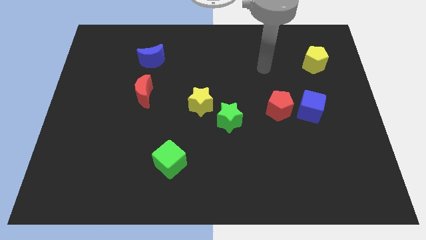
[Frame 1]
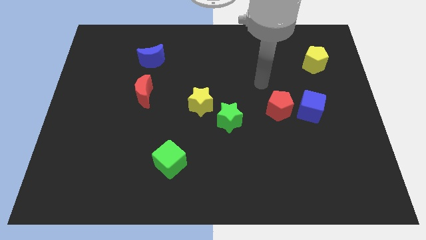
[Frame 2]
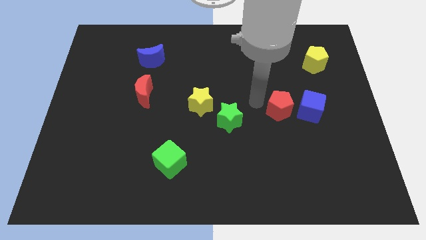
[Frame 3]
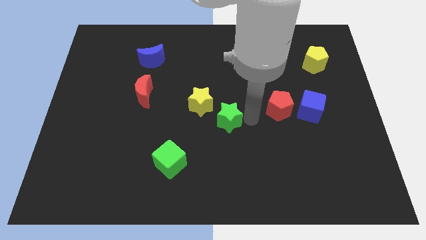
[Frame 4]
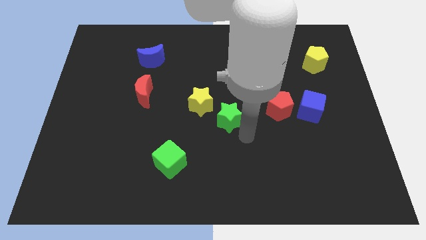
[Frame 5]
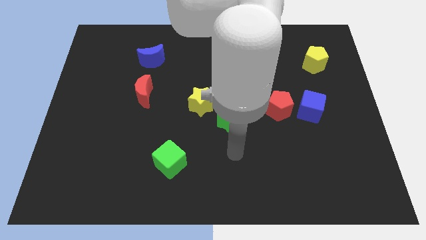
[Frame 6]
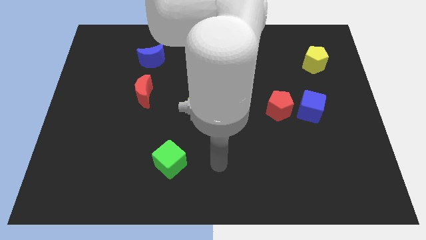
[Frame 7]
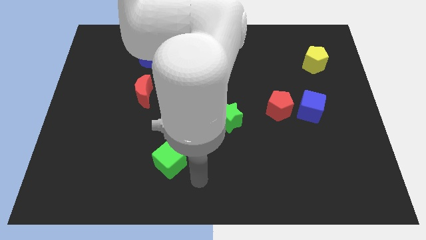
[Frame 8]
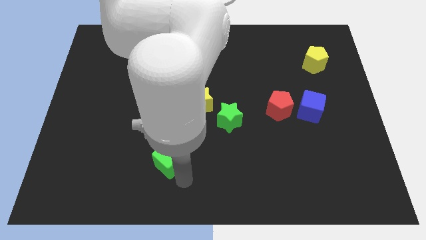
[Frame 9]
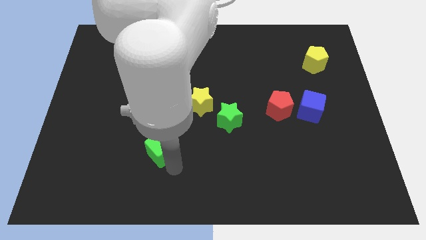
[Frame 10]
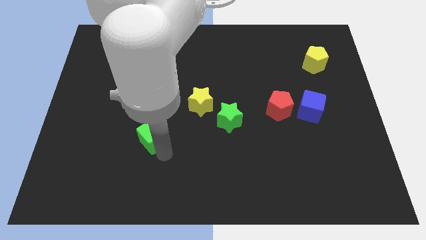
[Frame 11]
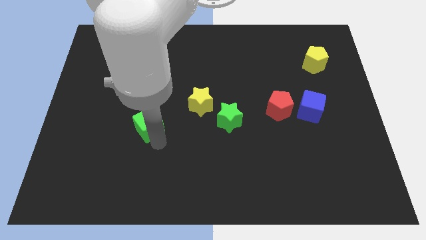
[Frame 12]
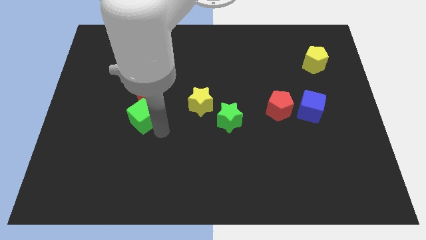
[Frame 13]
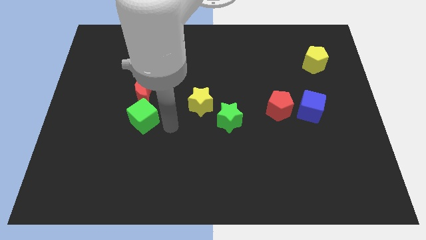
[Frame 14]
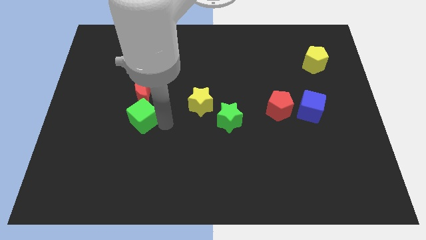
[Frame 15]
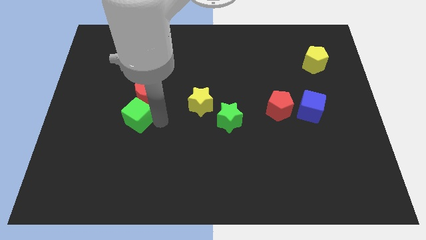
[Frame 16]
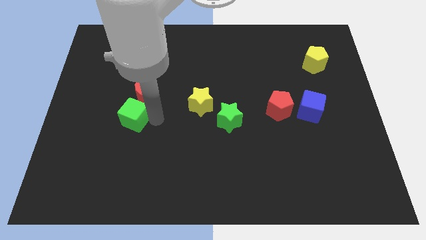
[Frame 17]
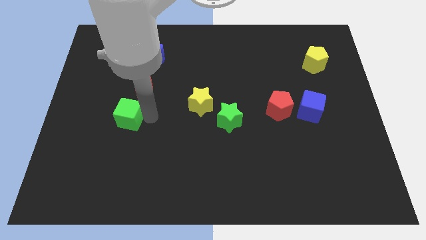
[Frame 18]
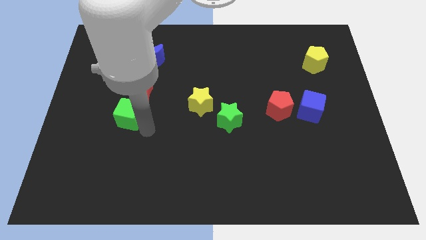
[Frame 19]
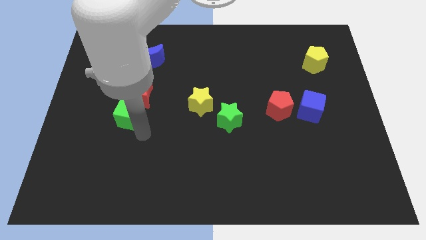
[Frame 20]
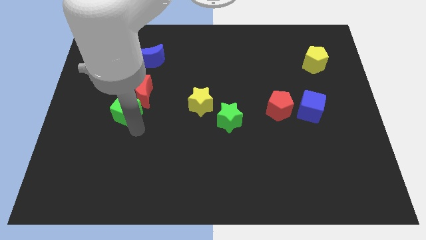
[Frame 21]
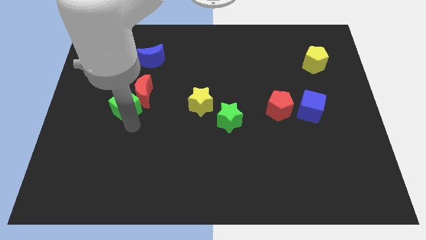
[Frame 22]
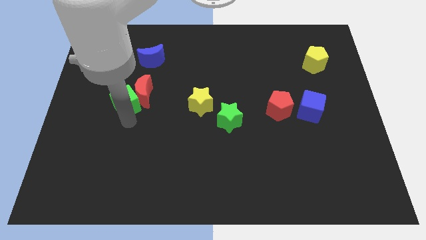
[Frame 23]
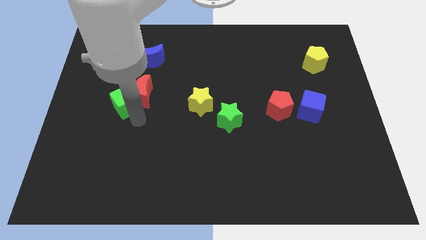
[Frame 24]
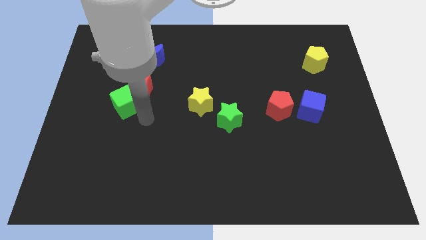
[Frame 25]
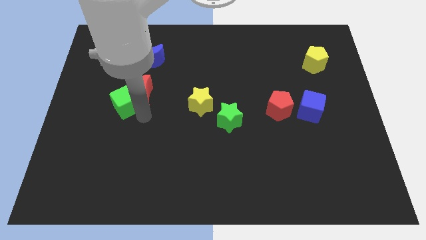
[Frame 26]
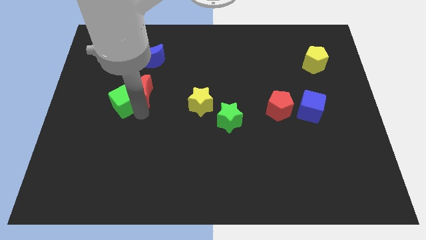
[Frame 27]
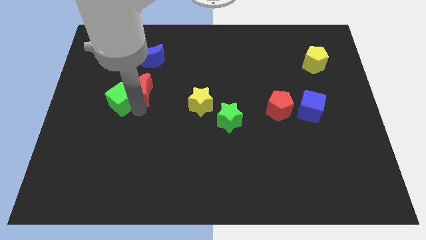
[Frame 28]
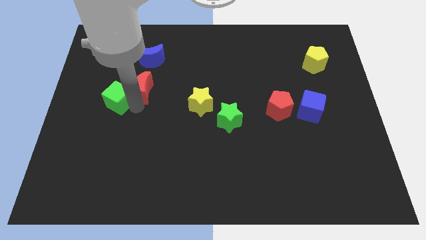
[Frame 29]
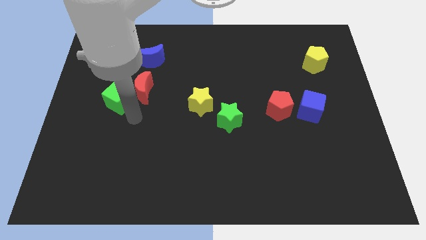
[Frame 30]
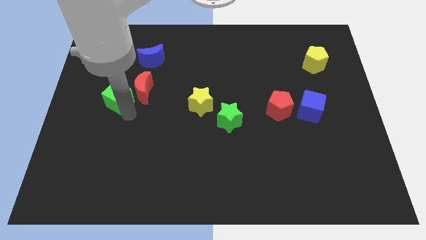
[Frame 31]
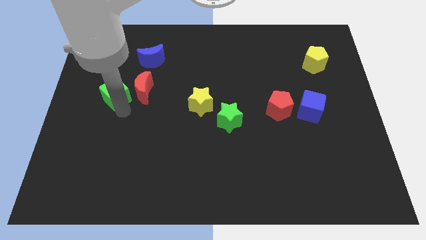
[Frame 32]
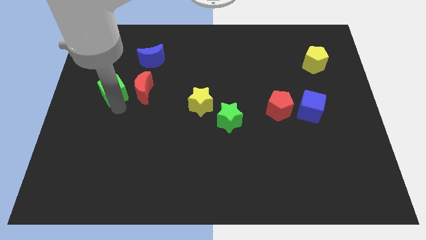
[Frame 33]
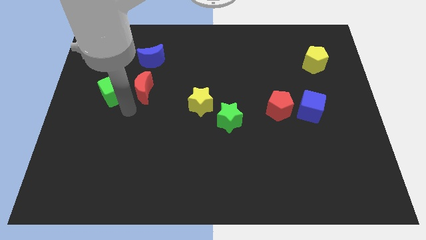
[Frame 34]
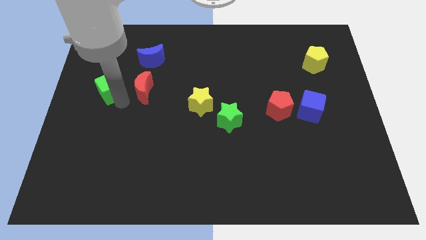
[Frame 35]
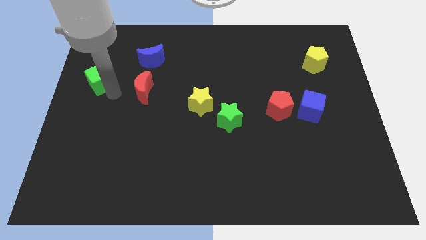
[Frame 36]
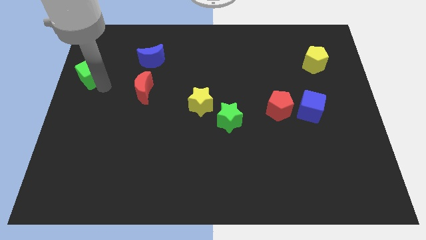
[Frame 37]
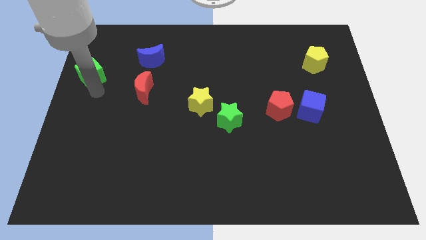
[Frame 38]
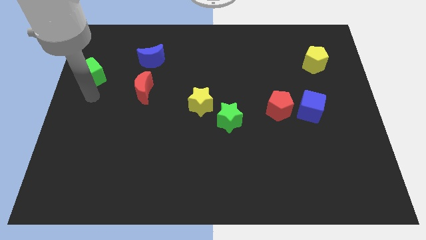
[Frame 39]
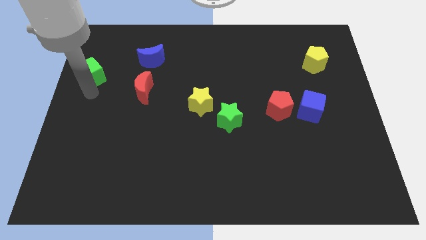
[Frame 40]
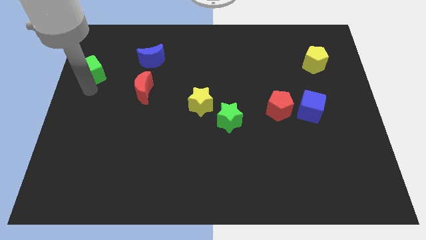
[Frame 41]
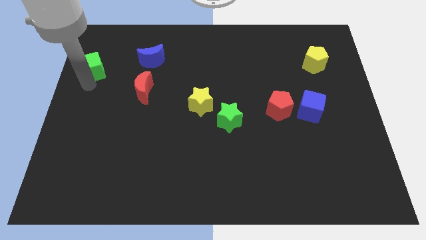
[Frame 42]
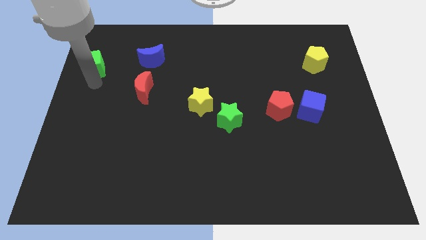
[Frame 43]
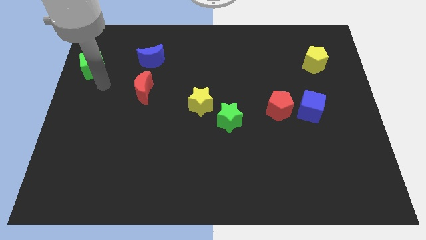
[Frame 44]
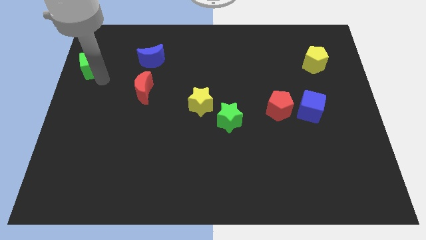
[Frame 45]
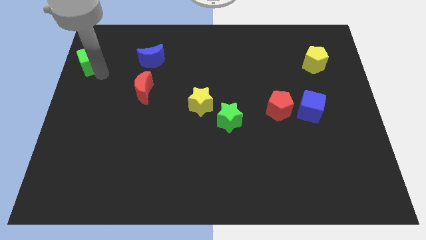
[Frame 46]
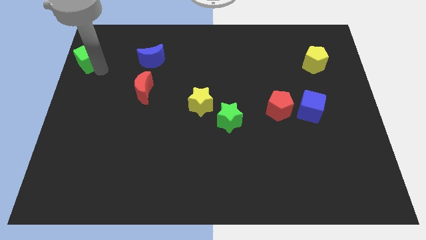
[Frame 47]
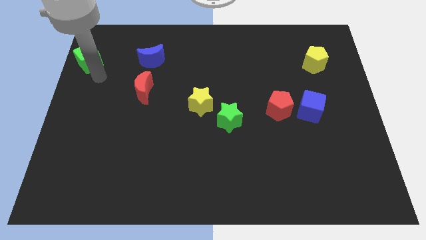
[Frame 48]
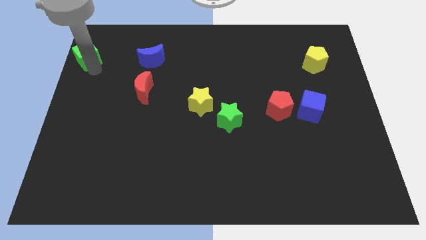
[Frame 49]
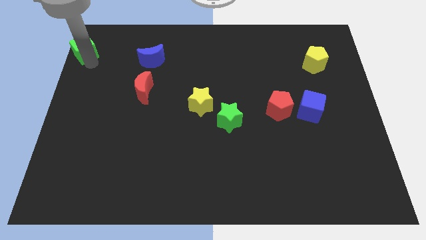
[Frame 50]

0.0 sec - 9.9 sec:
move the green cube to the top left corner

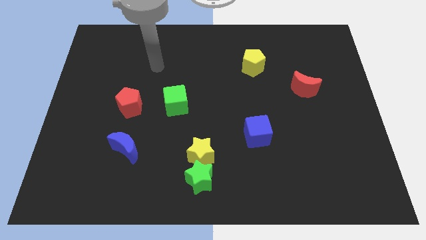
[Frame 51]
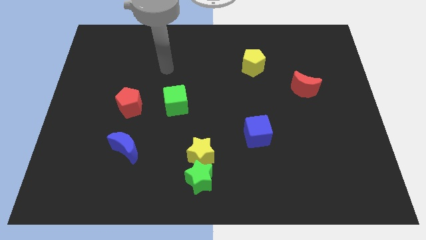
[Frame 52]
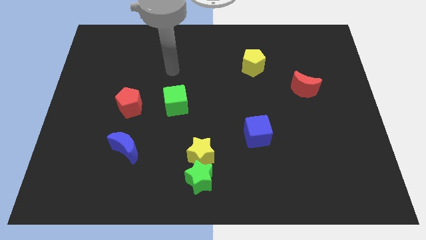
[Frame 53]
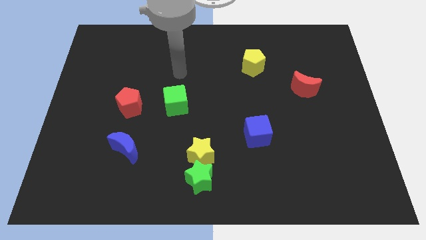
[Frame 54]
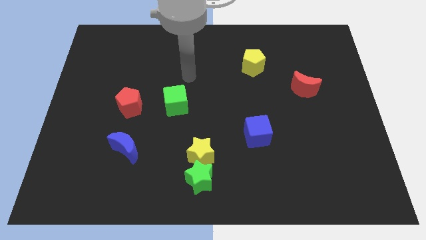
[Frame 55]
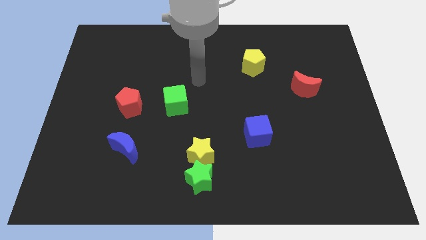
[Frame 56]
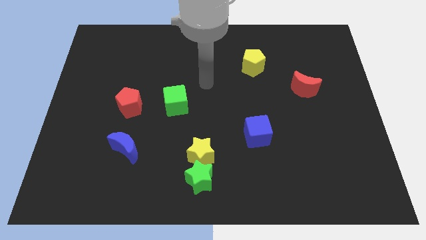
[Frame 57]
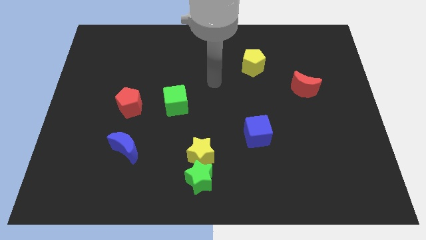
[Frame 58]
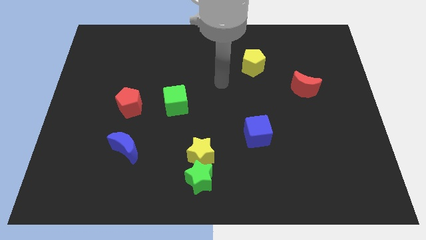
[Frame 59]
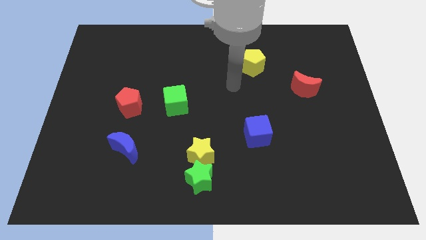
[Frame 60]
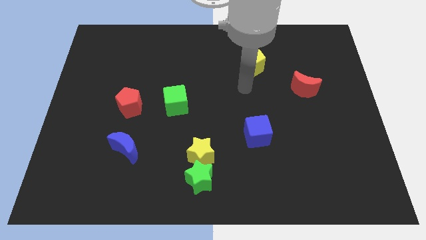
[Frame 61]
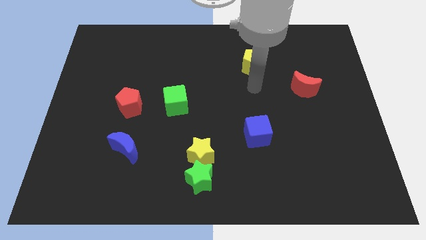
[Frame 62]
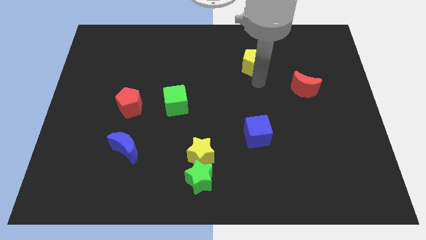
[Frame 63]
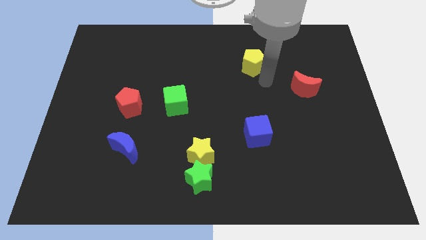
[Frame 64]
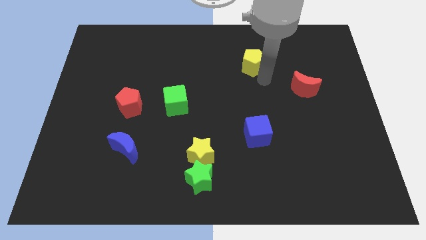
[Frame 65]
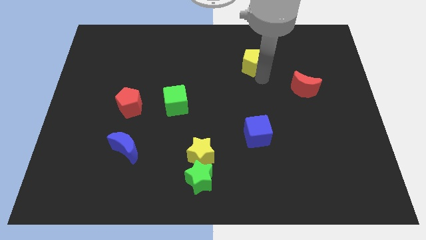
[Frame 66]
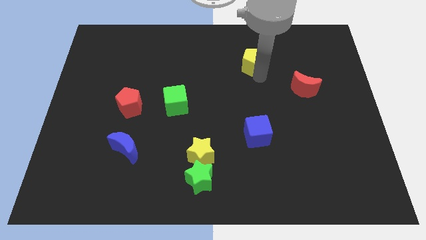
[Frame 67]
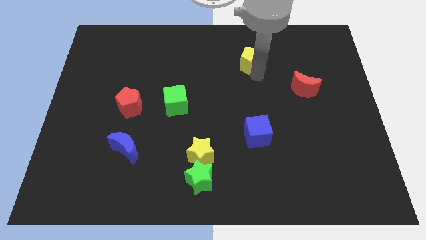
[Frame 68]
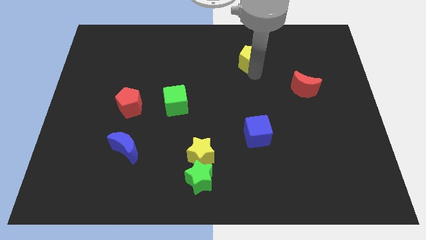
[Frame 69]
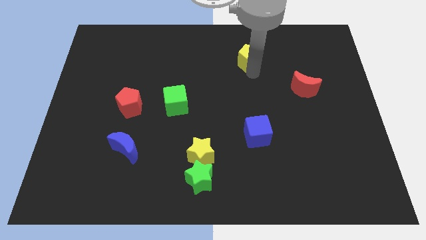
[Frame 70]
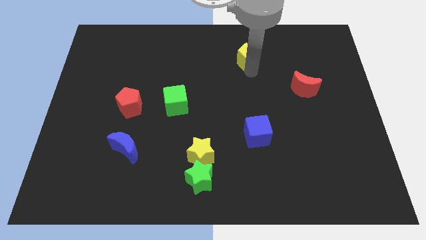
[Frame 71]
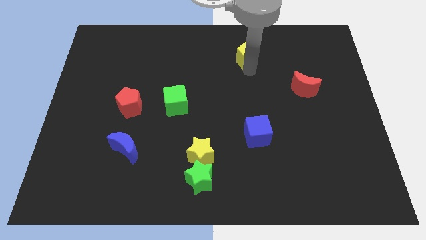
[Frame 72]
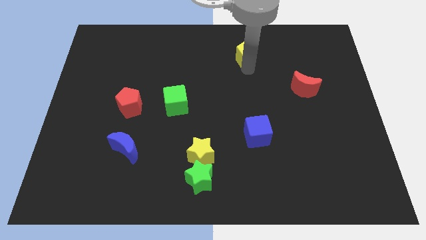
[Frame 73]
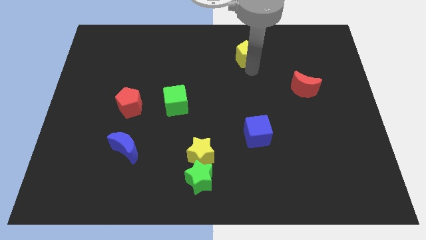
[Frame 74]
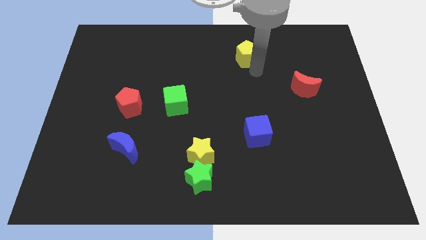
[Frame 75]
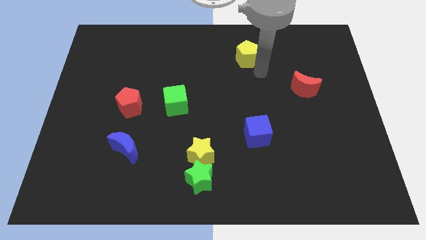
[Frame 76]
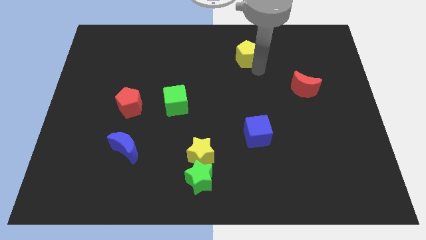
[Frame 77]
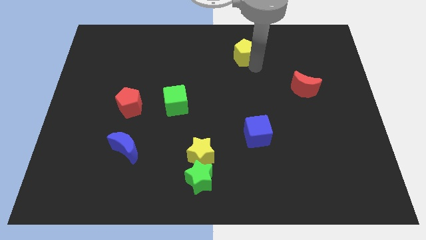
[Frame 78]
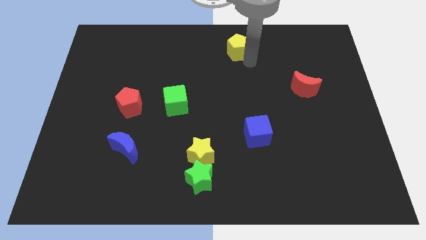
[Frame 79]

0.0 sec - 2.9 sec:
move the yellow pentagon to the top
